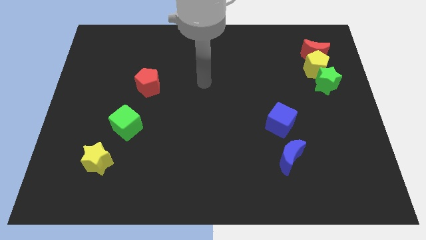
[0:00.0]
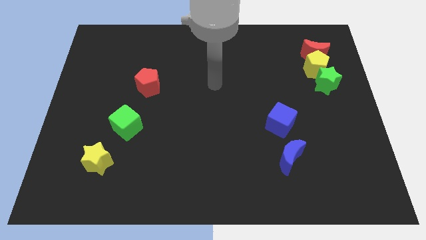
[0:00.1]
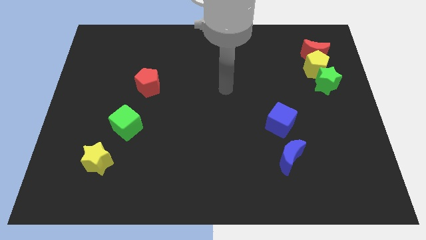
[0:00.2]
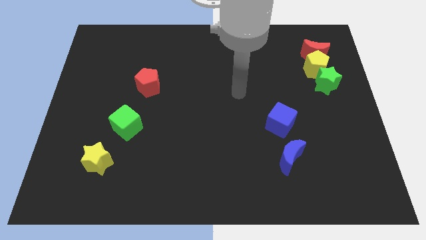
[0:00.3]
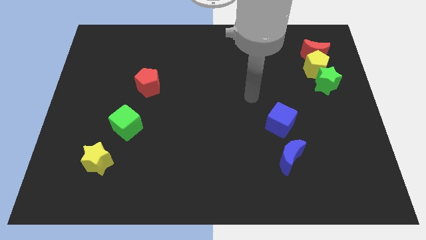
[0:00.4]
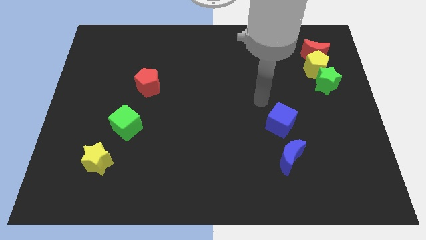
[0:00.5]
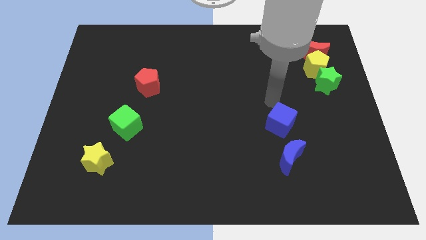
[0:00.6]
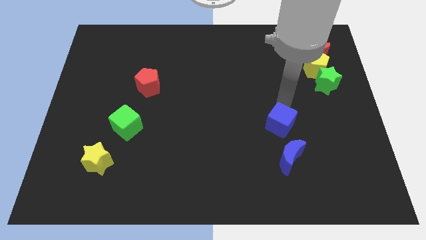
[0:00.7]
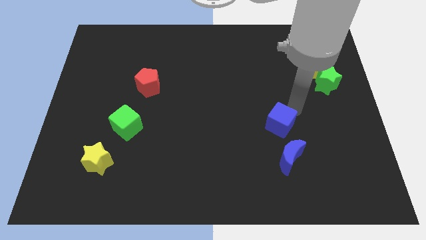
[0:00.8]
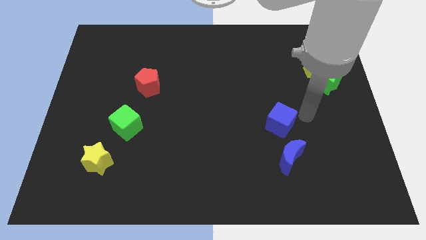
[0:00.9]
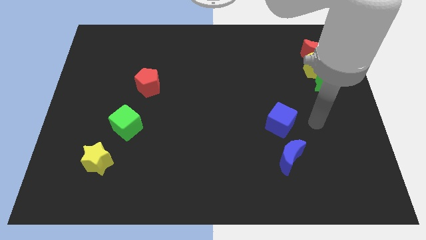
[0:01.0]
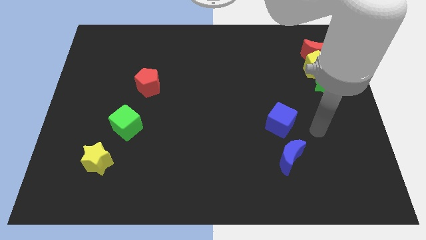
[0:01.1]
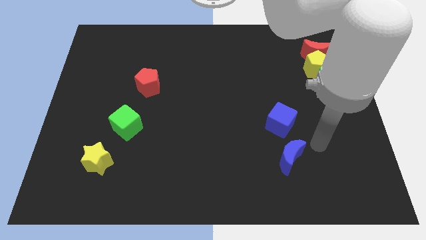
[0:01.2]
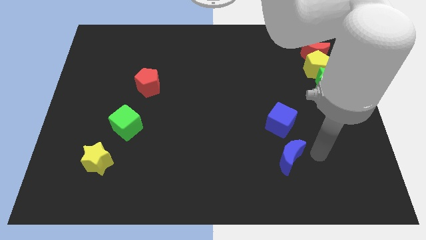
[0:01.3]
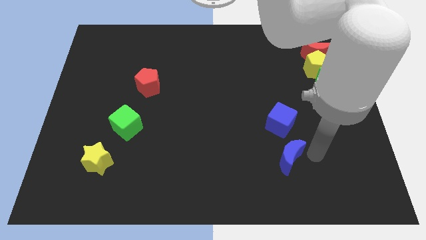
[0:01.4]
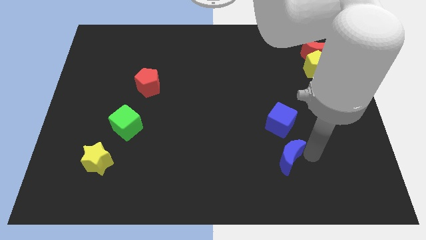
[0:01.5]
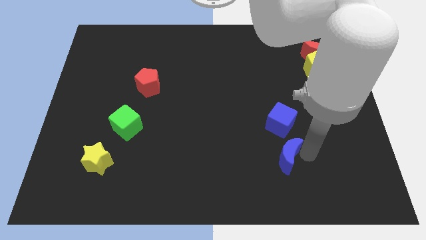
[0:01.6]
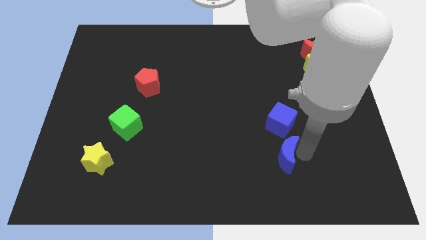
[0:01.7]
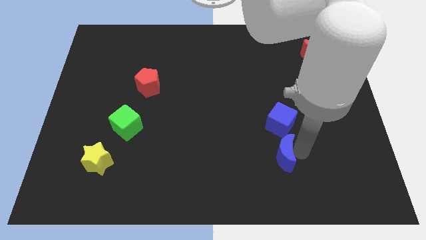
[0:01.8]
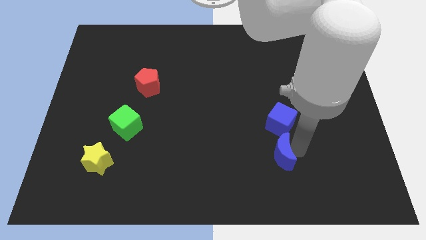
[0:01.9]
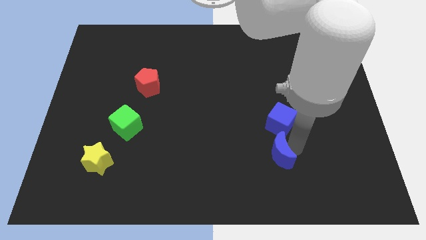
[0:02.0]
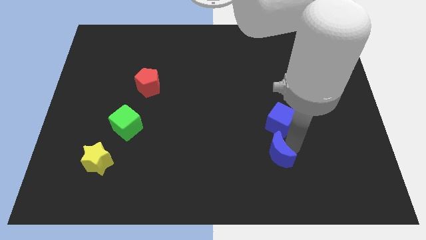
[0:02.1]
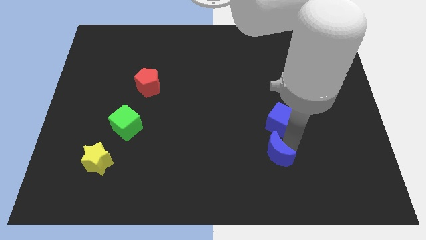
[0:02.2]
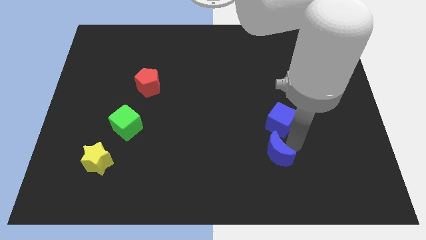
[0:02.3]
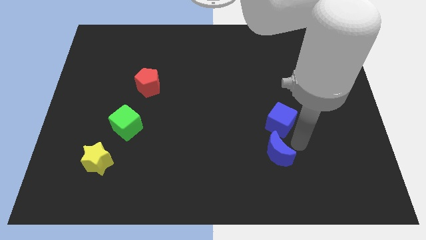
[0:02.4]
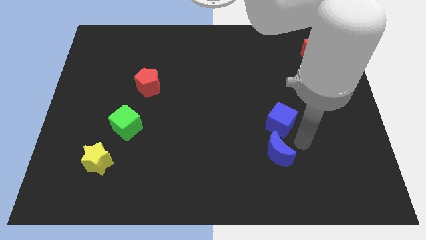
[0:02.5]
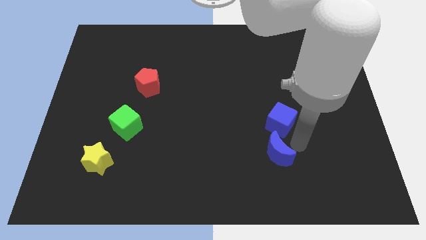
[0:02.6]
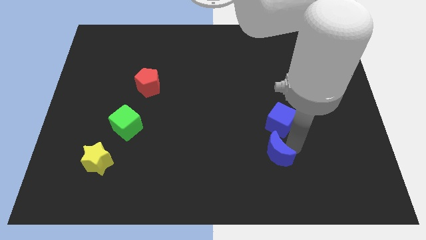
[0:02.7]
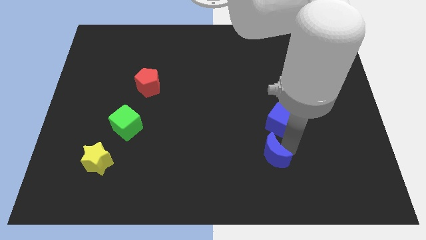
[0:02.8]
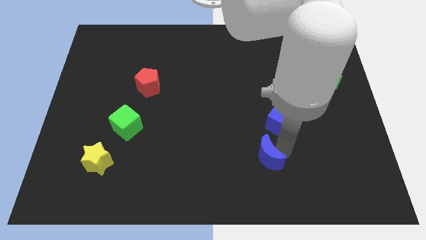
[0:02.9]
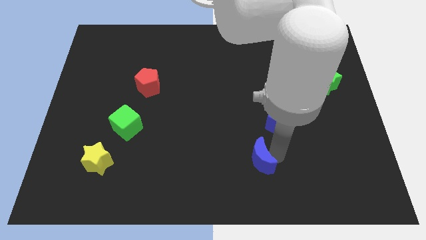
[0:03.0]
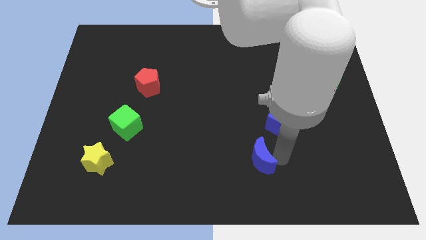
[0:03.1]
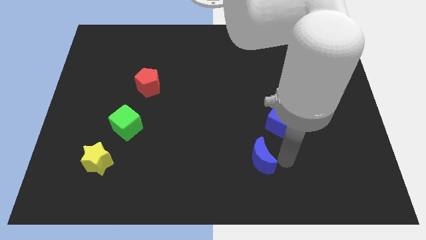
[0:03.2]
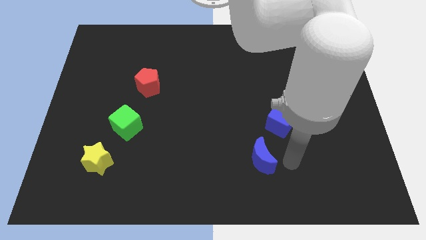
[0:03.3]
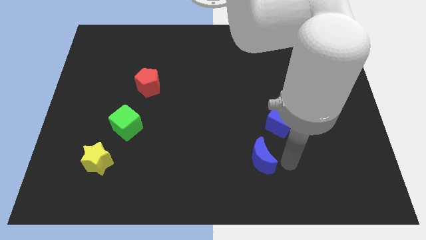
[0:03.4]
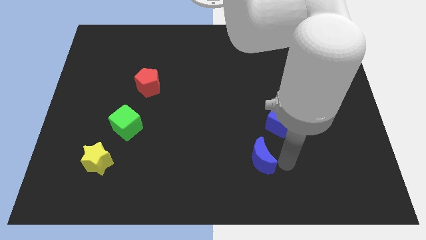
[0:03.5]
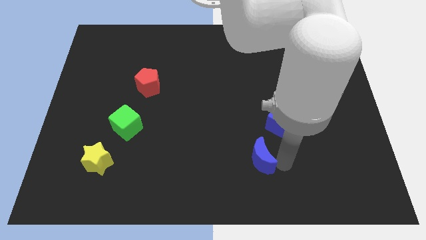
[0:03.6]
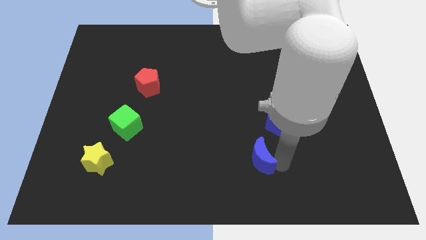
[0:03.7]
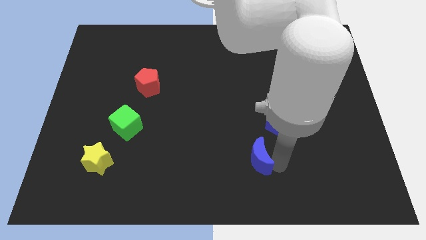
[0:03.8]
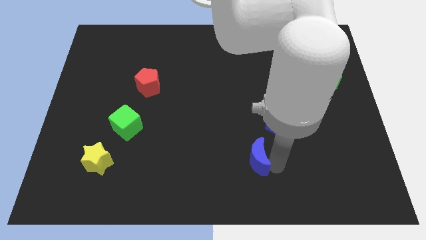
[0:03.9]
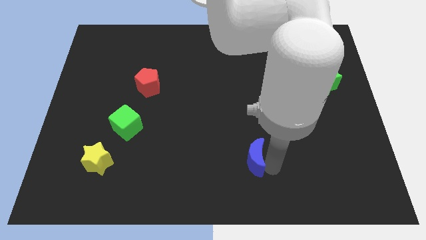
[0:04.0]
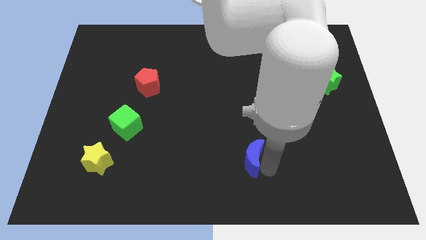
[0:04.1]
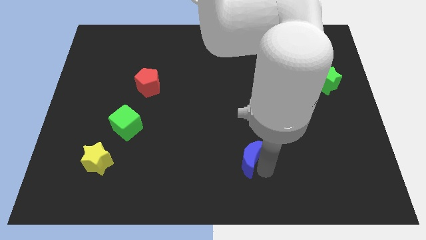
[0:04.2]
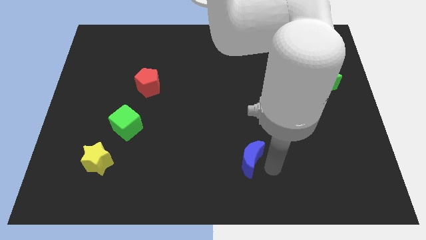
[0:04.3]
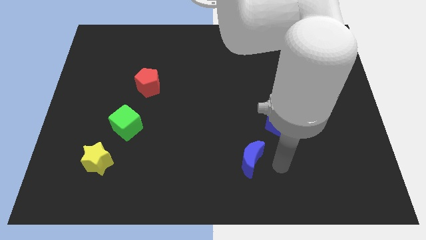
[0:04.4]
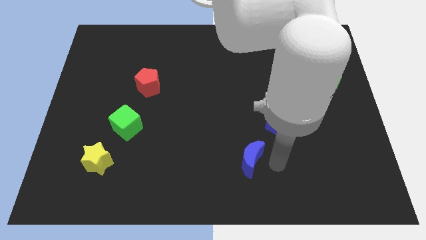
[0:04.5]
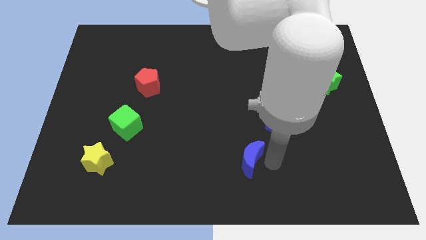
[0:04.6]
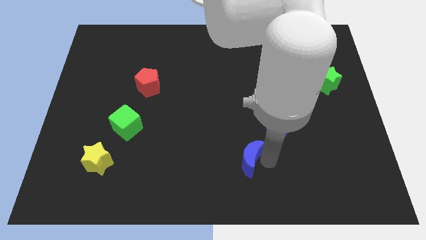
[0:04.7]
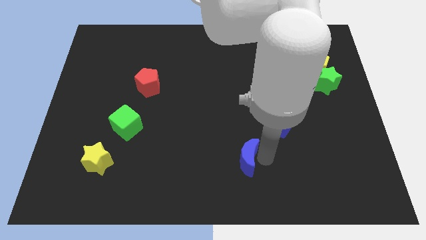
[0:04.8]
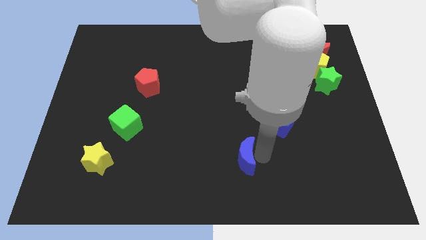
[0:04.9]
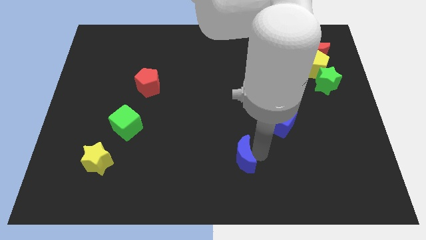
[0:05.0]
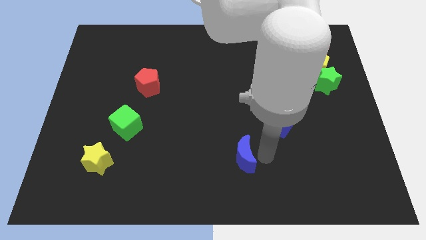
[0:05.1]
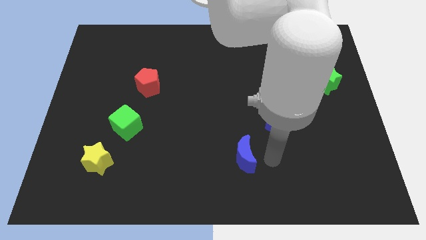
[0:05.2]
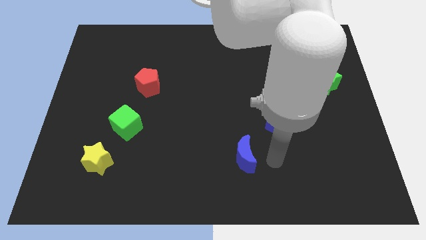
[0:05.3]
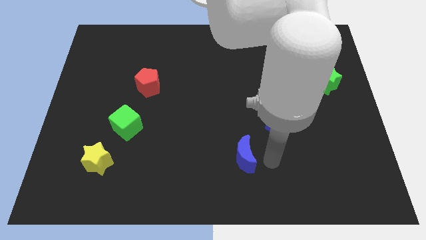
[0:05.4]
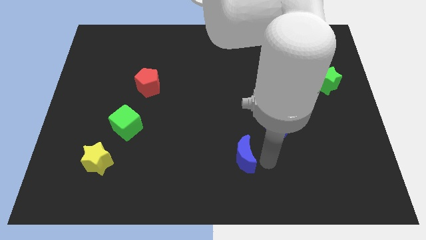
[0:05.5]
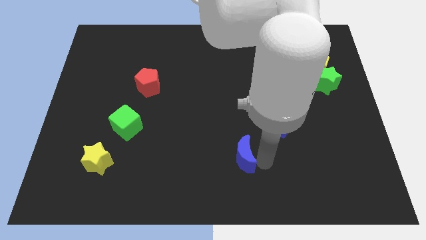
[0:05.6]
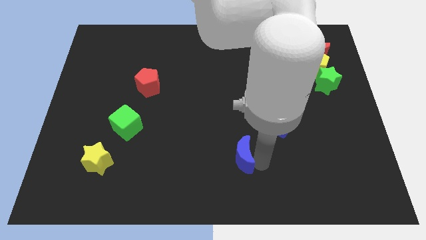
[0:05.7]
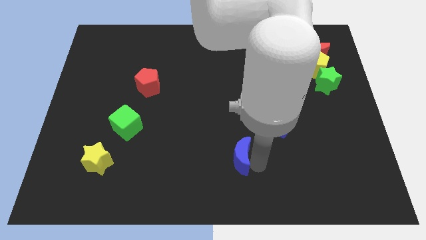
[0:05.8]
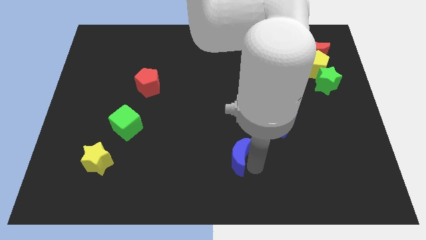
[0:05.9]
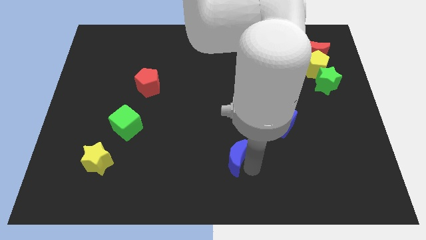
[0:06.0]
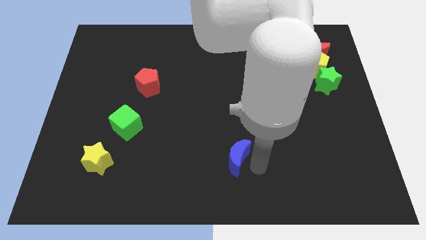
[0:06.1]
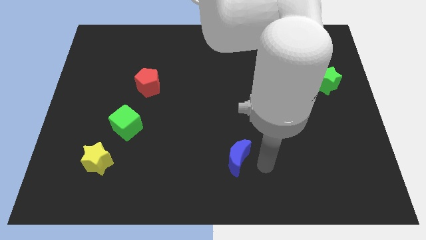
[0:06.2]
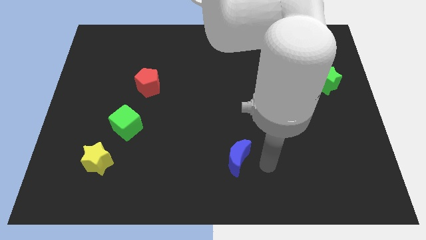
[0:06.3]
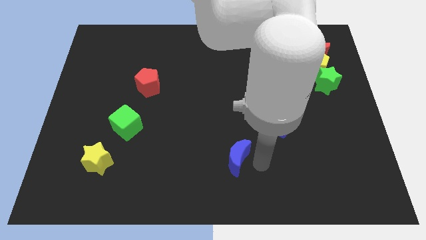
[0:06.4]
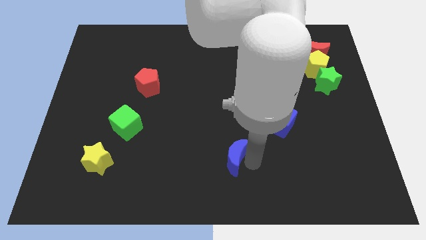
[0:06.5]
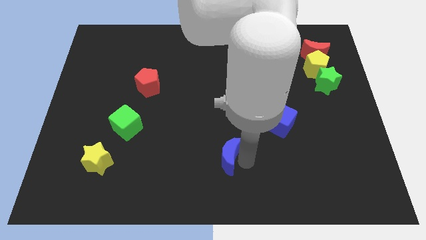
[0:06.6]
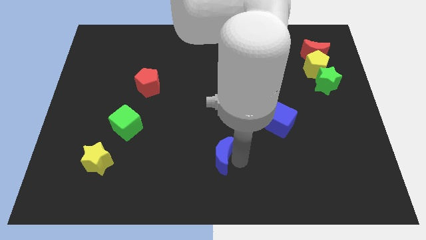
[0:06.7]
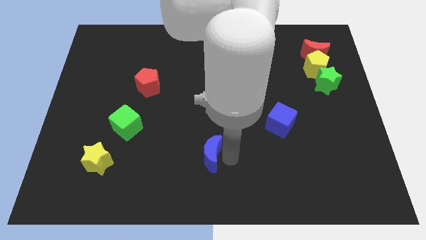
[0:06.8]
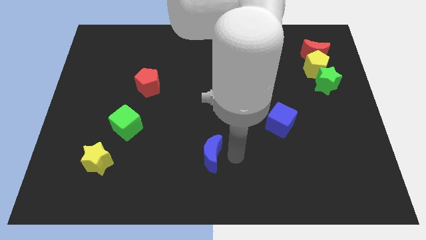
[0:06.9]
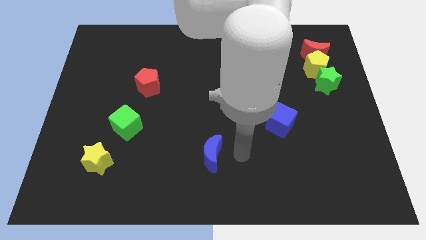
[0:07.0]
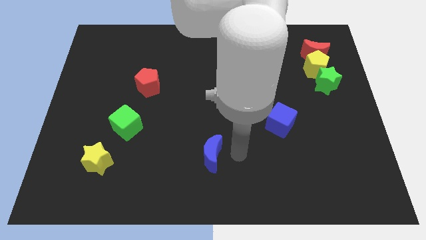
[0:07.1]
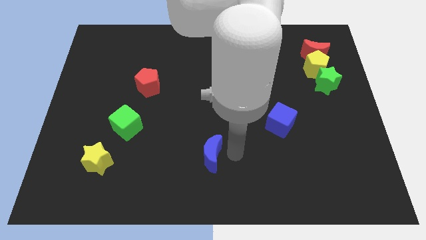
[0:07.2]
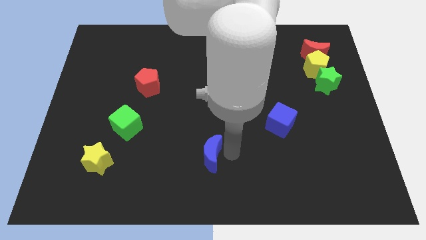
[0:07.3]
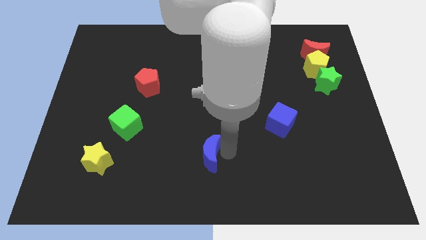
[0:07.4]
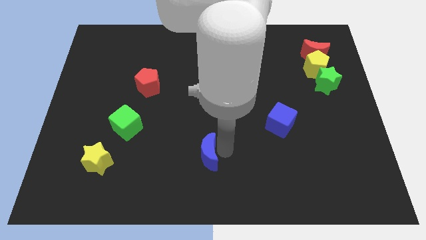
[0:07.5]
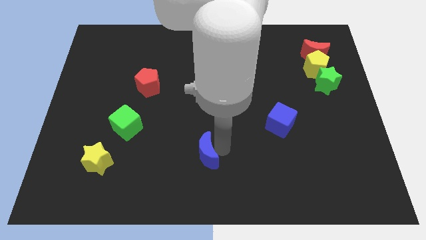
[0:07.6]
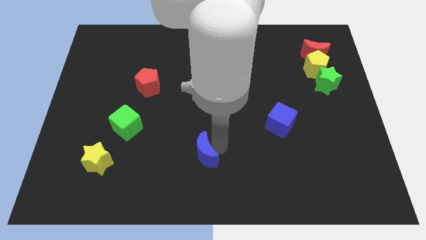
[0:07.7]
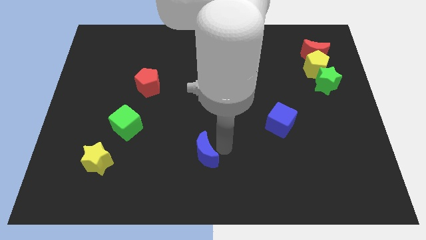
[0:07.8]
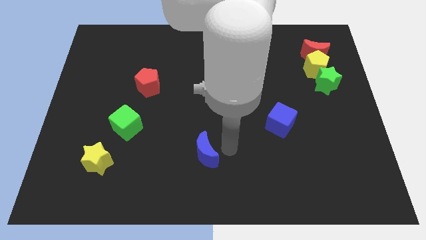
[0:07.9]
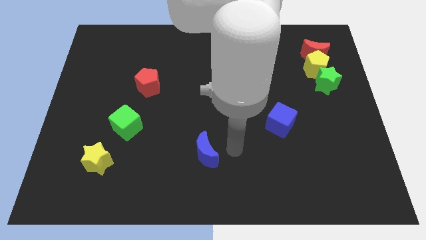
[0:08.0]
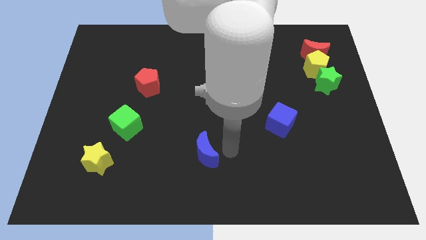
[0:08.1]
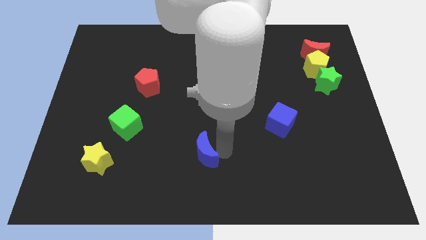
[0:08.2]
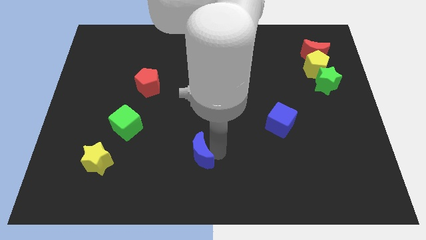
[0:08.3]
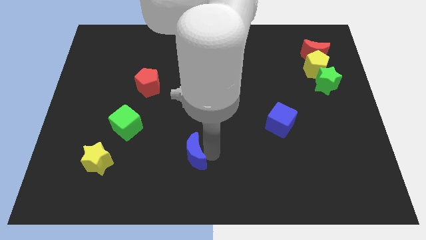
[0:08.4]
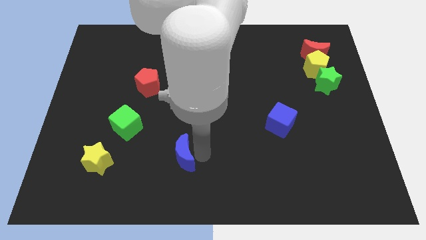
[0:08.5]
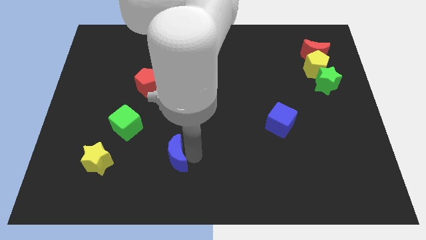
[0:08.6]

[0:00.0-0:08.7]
put the blue moon right of the yellow star
